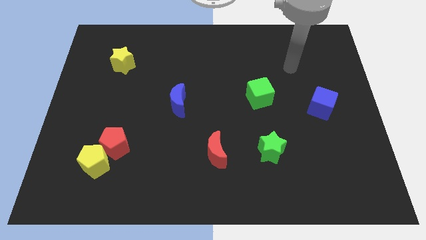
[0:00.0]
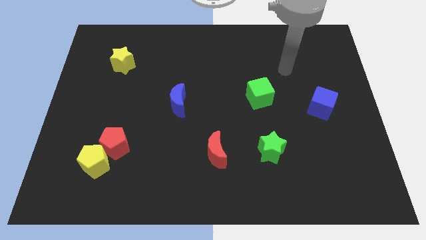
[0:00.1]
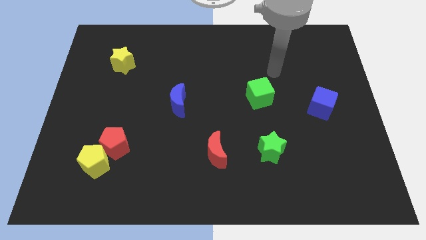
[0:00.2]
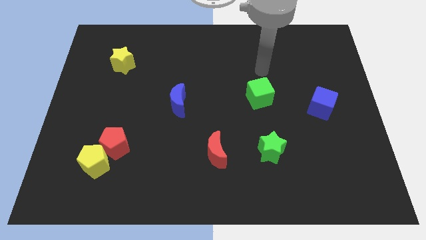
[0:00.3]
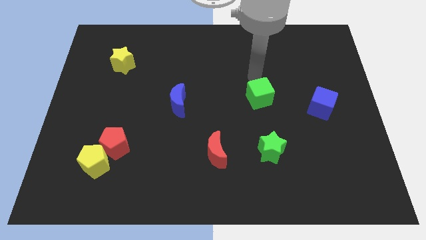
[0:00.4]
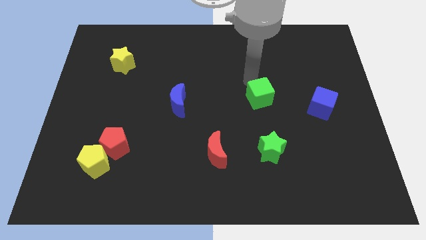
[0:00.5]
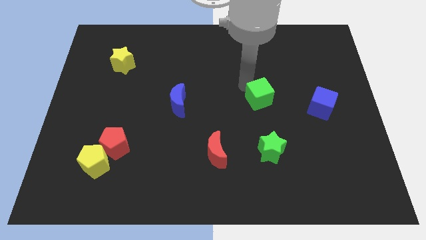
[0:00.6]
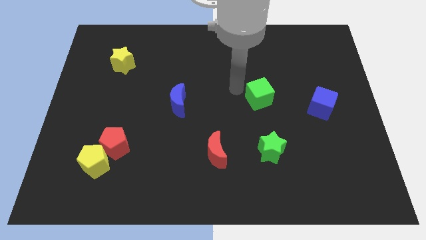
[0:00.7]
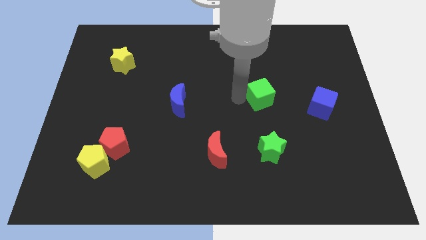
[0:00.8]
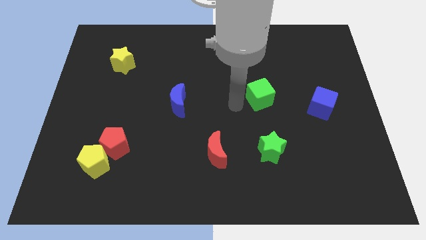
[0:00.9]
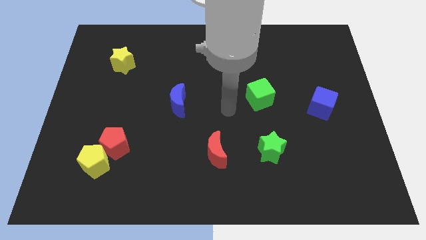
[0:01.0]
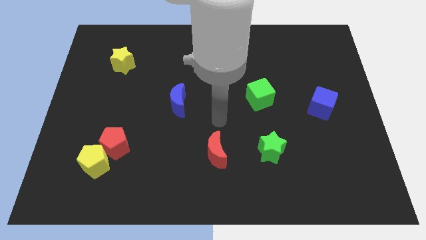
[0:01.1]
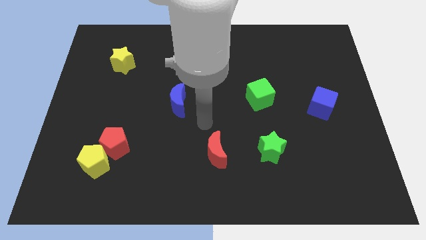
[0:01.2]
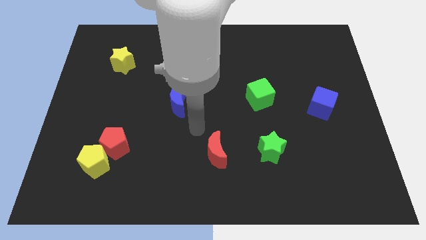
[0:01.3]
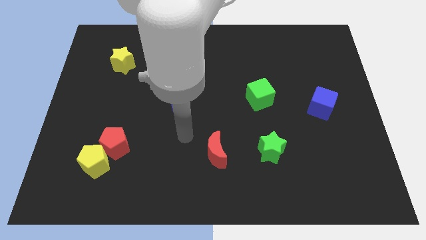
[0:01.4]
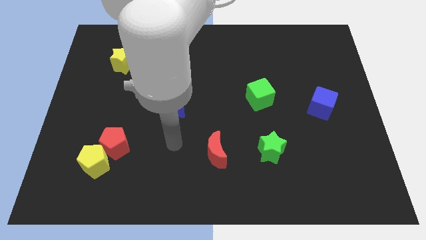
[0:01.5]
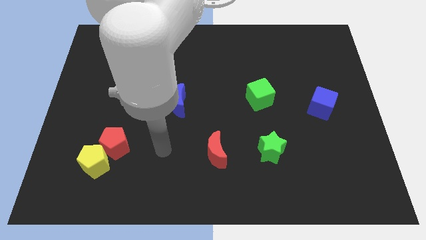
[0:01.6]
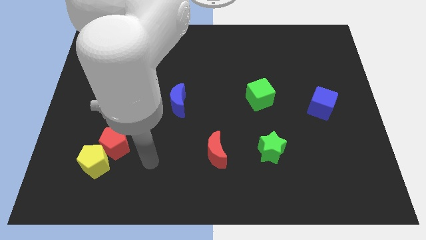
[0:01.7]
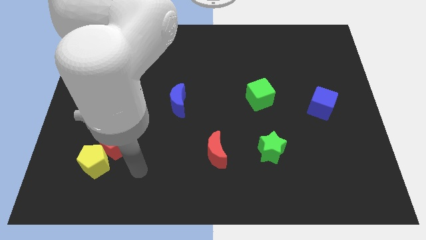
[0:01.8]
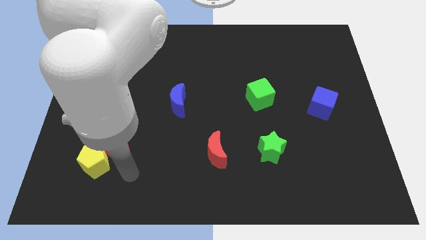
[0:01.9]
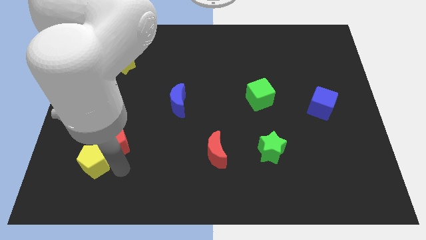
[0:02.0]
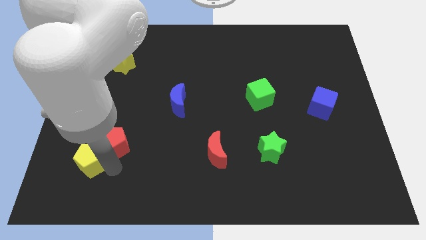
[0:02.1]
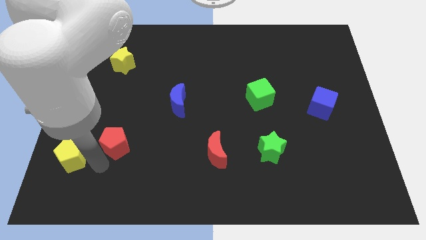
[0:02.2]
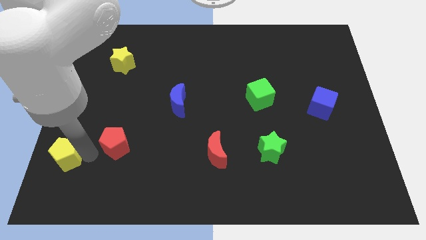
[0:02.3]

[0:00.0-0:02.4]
move the red pentagon away from the yellow pentagon

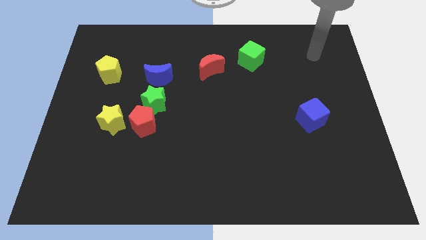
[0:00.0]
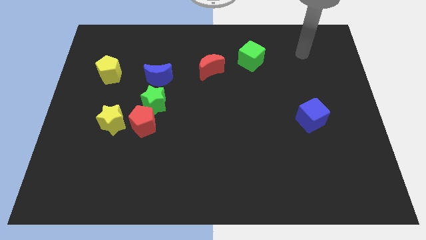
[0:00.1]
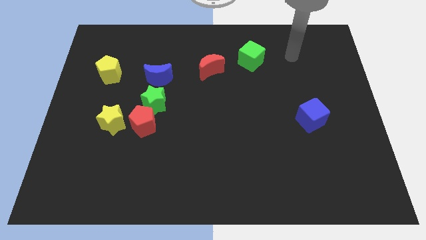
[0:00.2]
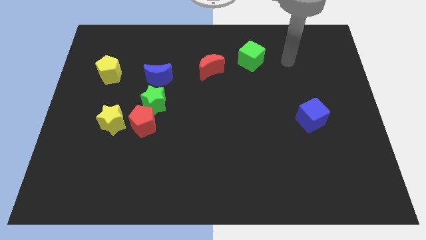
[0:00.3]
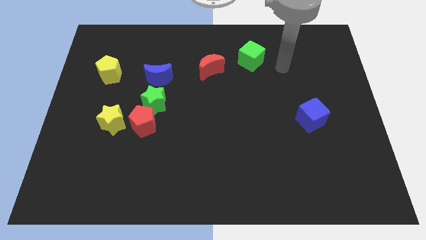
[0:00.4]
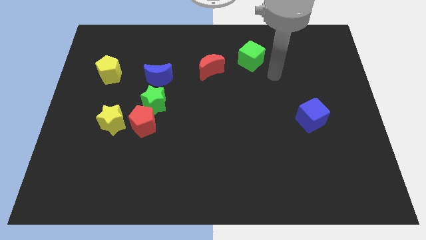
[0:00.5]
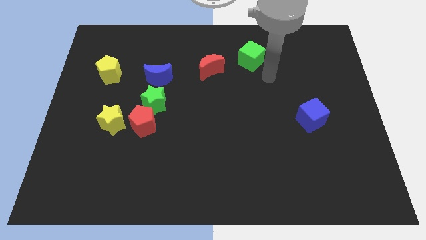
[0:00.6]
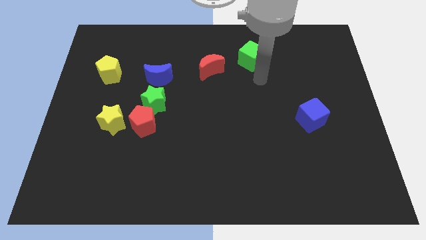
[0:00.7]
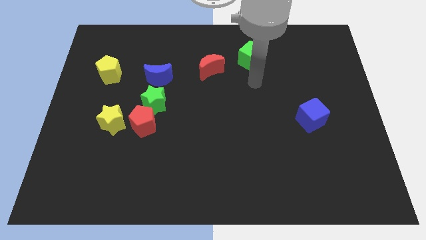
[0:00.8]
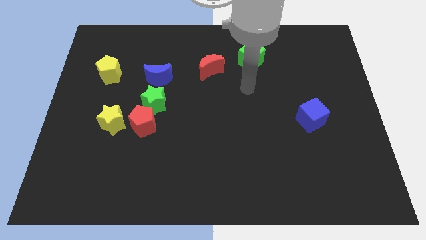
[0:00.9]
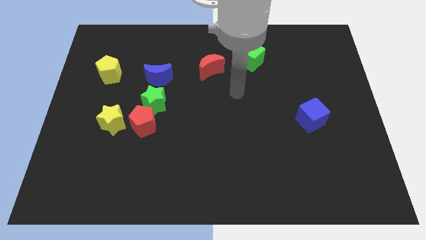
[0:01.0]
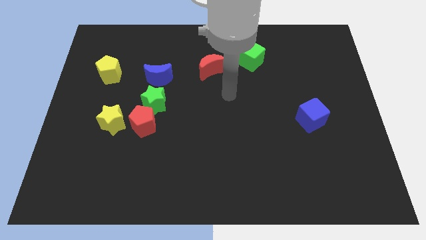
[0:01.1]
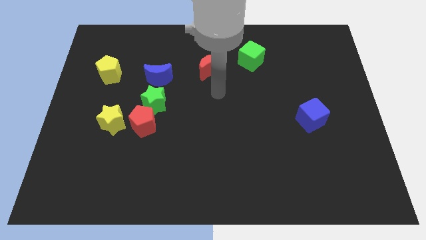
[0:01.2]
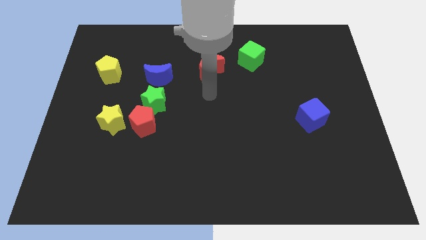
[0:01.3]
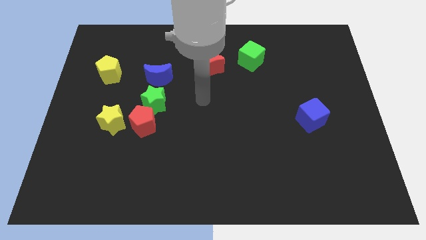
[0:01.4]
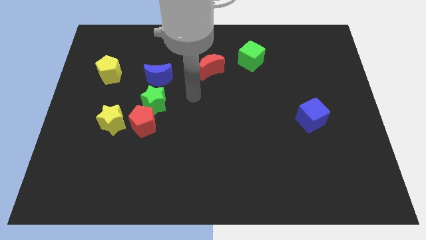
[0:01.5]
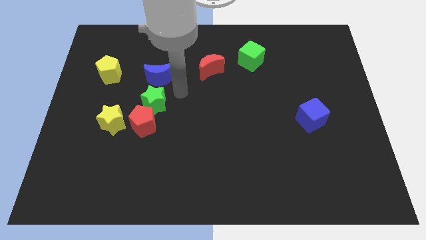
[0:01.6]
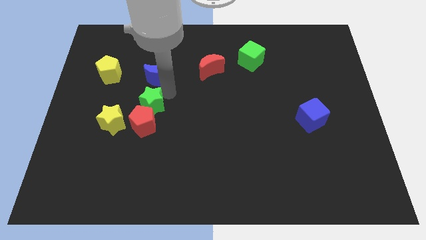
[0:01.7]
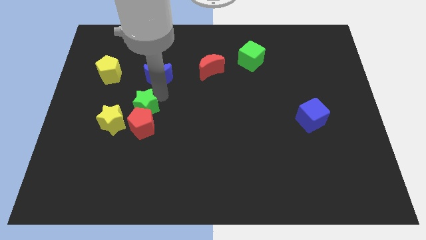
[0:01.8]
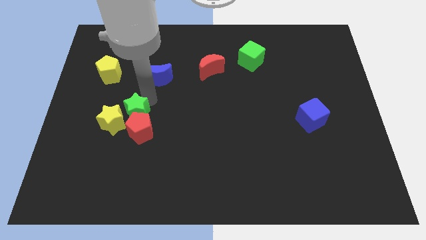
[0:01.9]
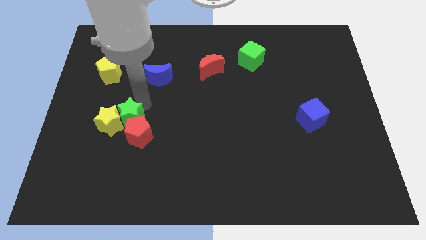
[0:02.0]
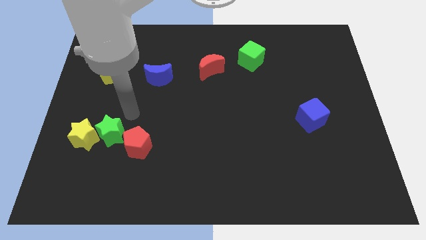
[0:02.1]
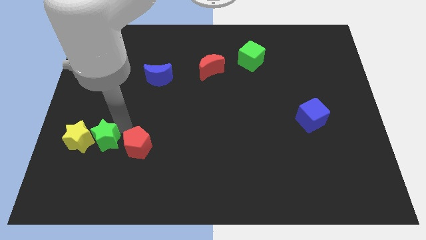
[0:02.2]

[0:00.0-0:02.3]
separate the red pentagon from the green star and yellow star

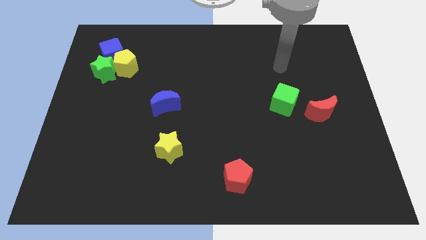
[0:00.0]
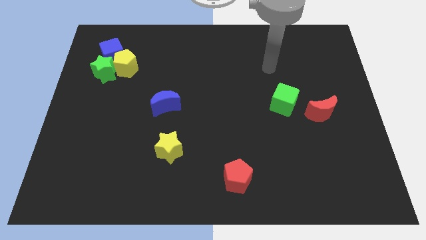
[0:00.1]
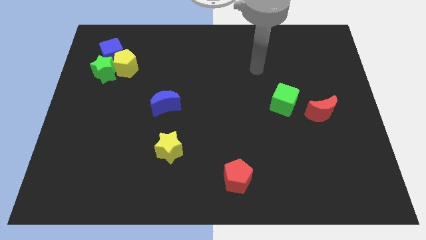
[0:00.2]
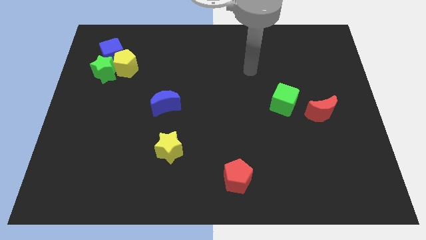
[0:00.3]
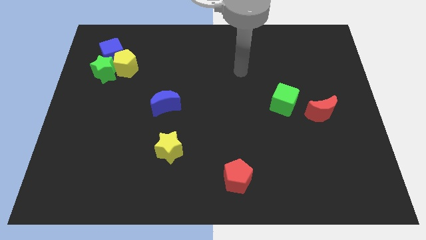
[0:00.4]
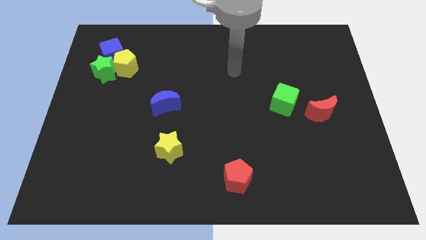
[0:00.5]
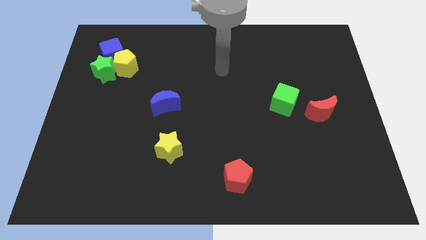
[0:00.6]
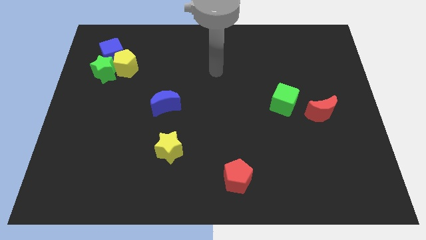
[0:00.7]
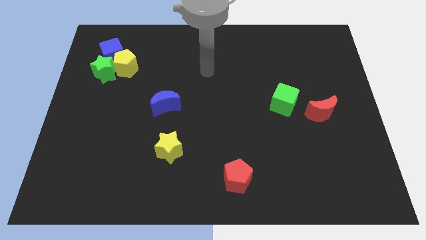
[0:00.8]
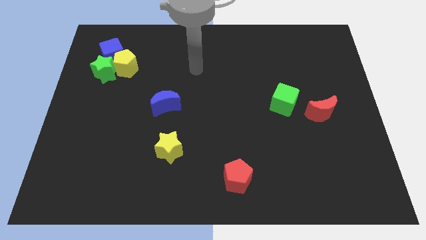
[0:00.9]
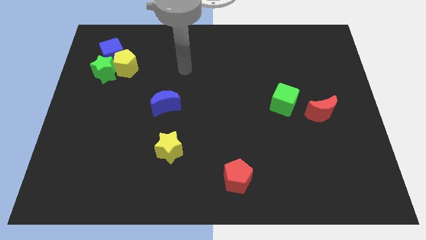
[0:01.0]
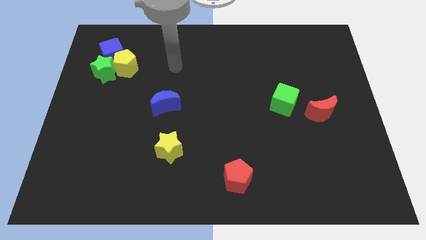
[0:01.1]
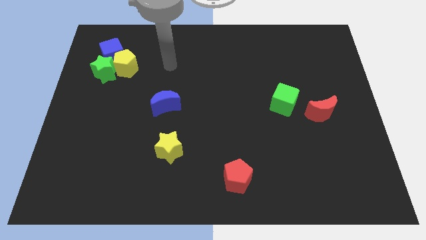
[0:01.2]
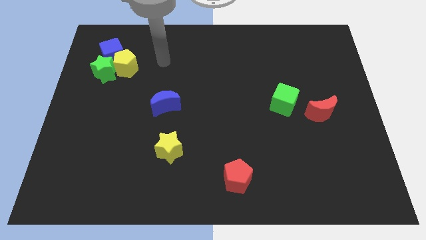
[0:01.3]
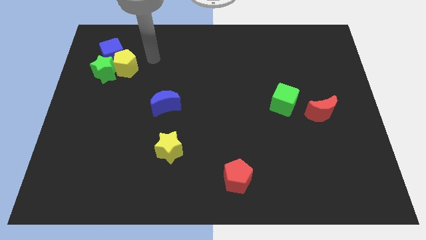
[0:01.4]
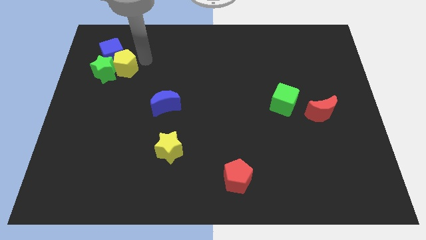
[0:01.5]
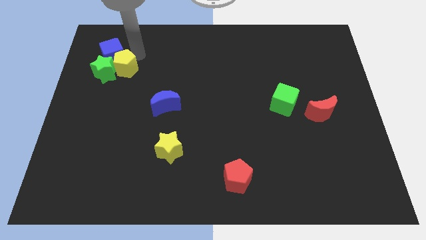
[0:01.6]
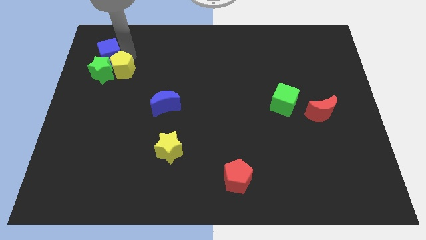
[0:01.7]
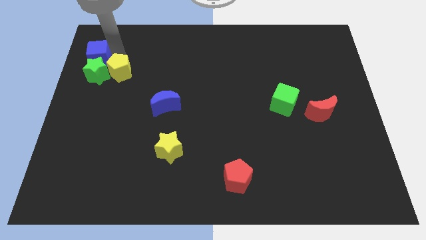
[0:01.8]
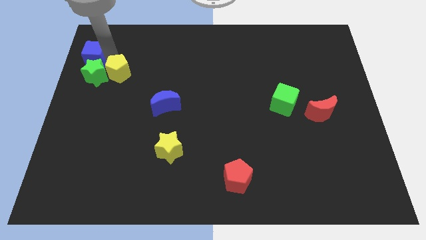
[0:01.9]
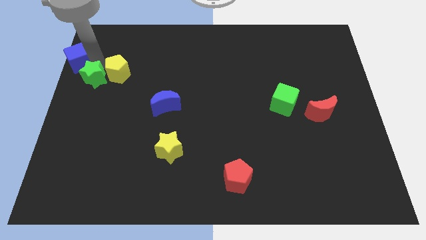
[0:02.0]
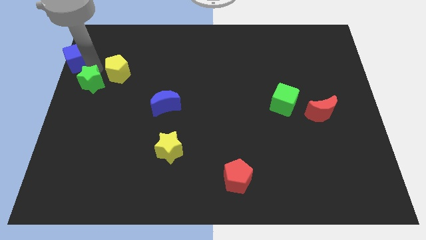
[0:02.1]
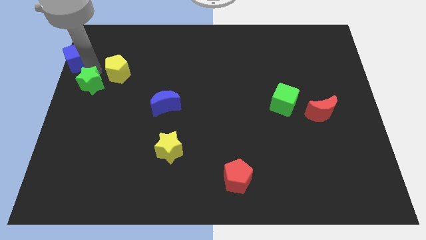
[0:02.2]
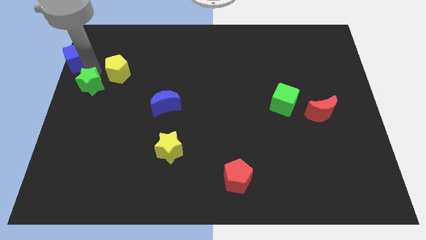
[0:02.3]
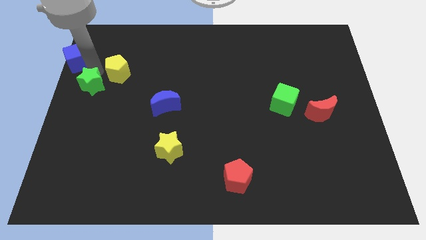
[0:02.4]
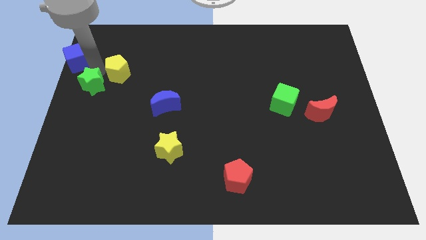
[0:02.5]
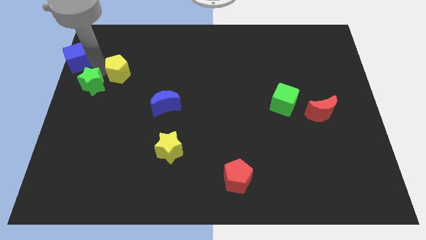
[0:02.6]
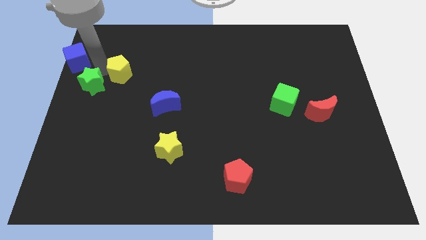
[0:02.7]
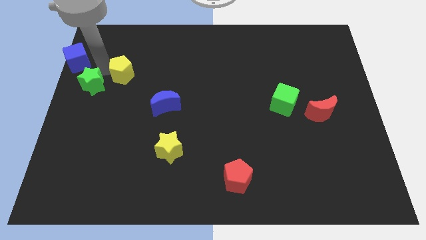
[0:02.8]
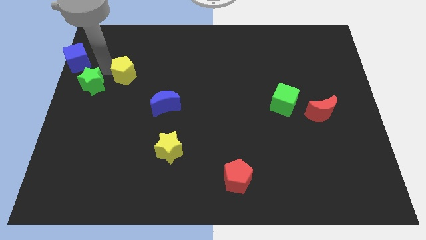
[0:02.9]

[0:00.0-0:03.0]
move the yellow pentagon away from the green star and blue cube

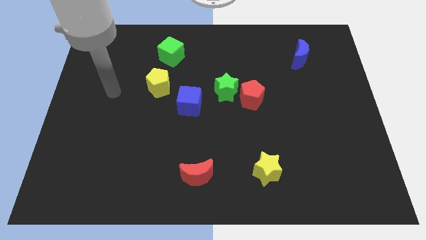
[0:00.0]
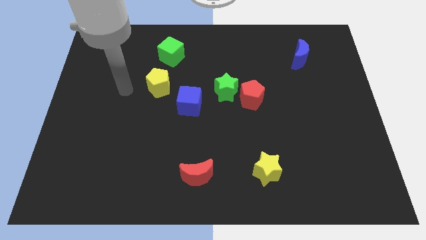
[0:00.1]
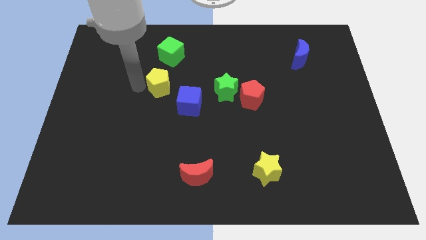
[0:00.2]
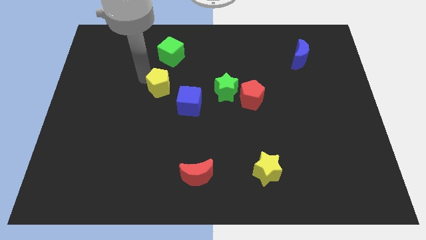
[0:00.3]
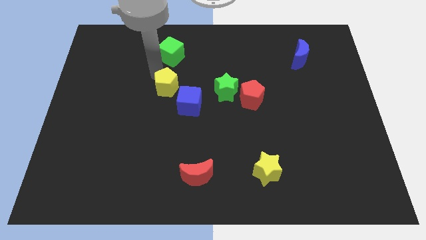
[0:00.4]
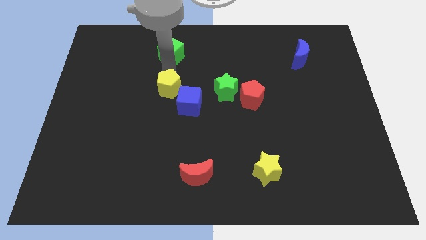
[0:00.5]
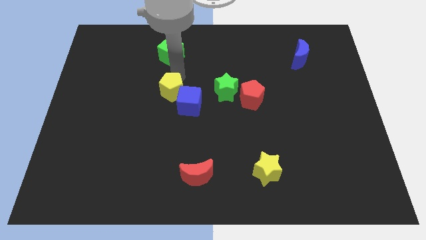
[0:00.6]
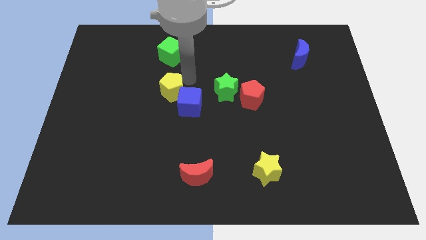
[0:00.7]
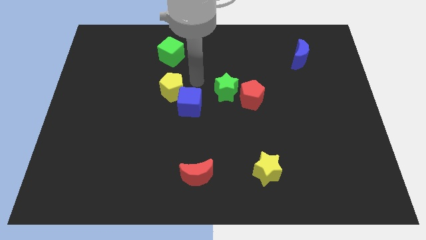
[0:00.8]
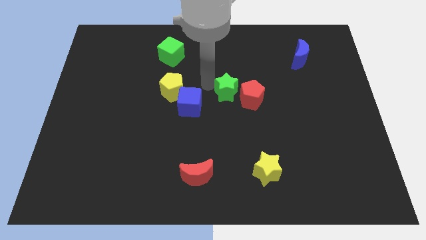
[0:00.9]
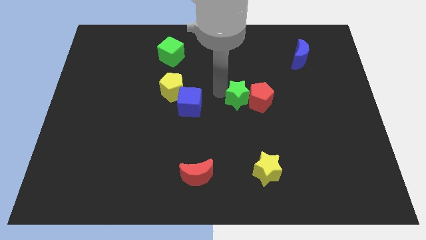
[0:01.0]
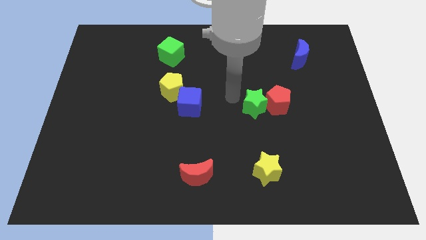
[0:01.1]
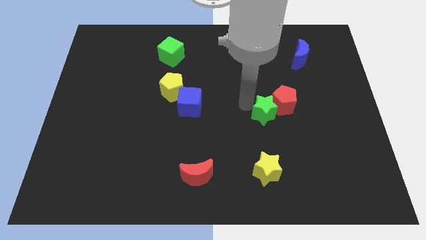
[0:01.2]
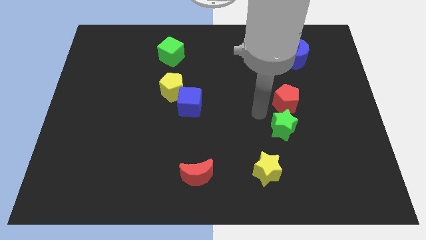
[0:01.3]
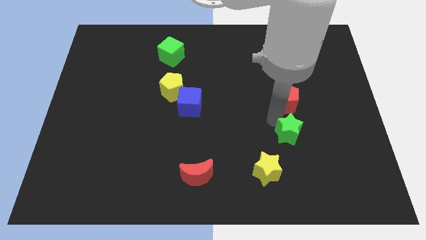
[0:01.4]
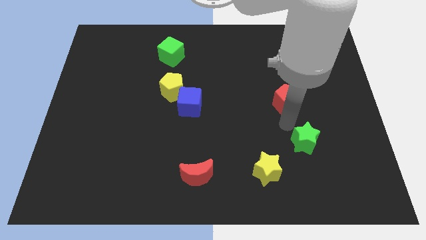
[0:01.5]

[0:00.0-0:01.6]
move the red pentagon away from the green star
